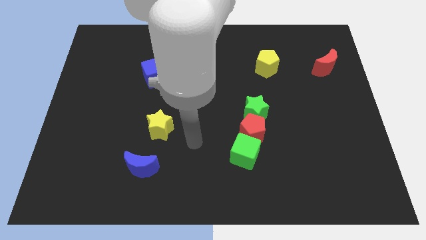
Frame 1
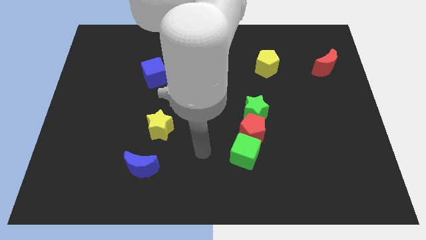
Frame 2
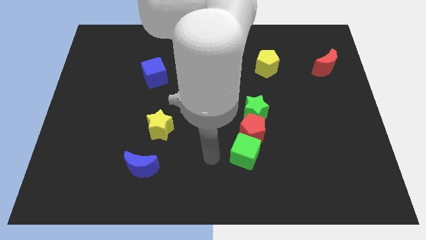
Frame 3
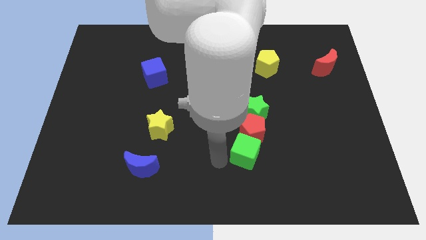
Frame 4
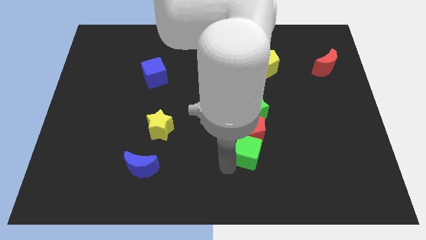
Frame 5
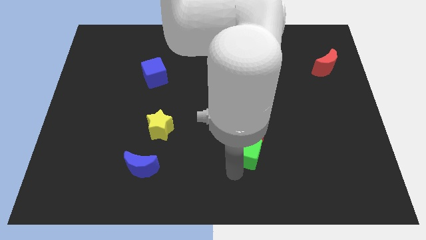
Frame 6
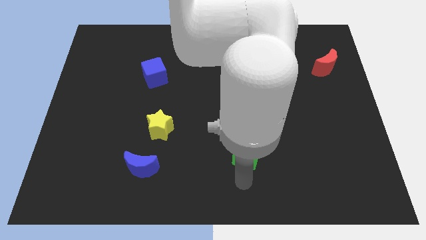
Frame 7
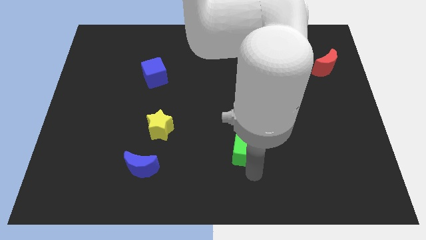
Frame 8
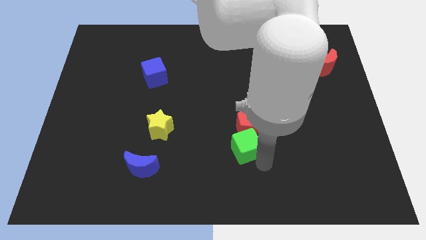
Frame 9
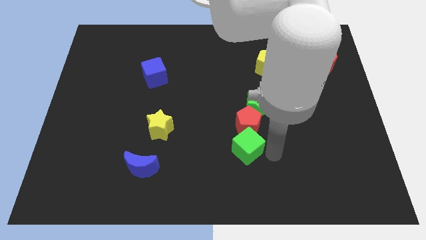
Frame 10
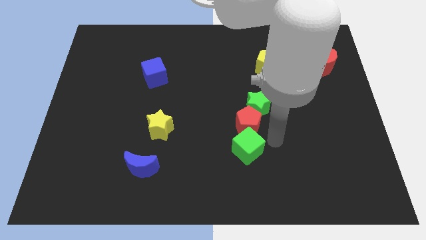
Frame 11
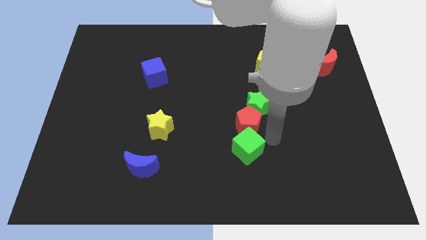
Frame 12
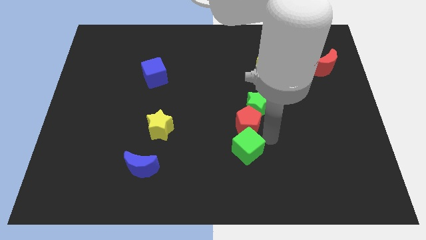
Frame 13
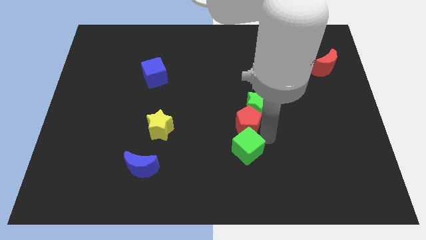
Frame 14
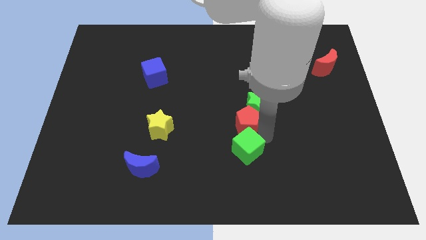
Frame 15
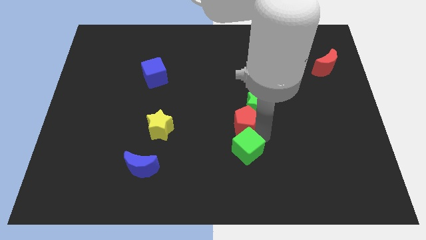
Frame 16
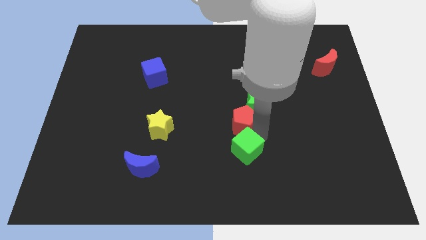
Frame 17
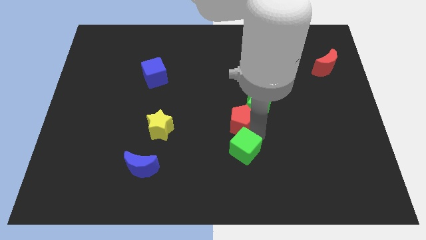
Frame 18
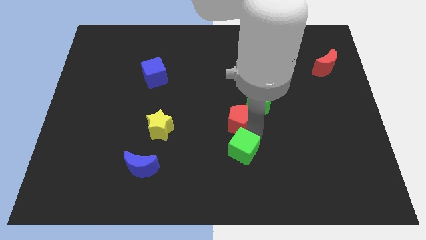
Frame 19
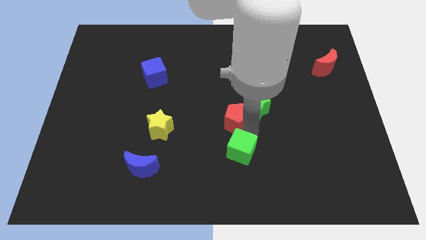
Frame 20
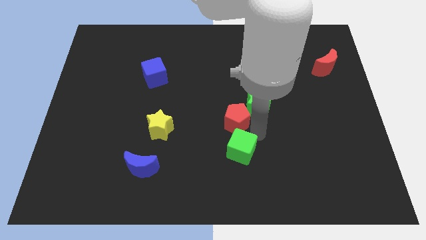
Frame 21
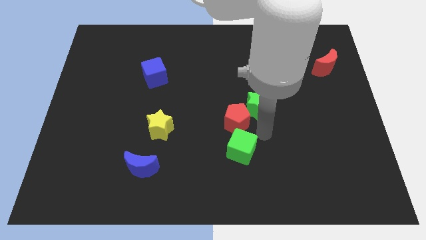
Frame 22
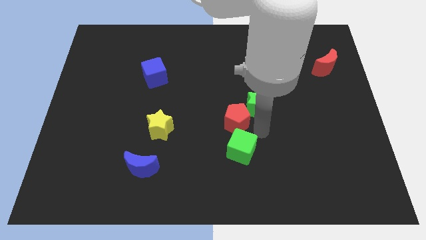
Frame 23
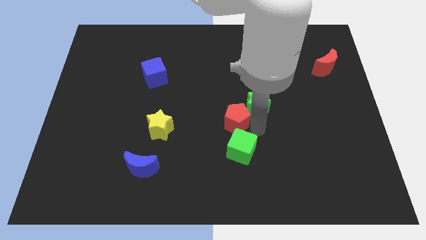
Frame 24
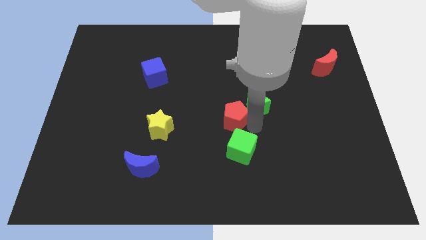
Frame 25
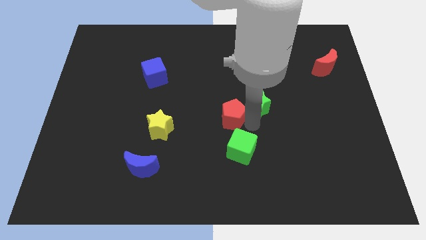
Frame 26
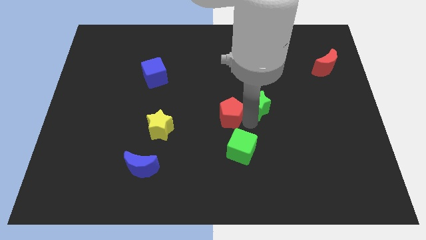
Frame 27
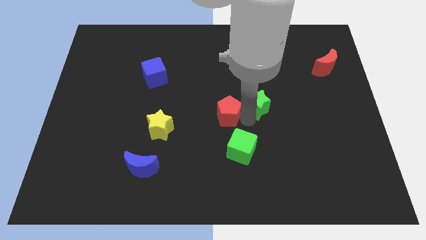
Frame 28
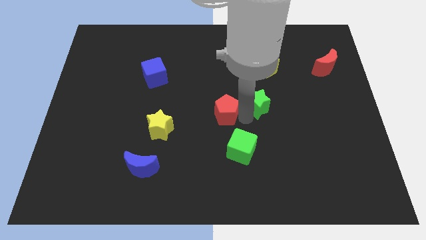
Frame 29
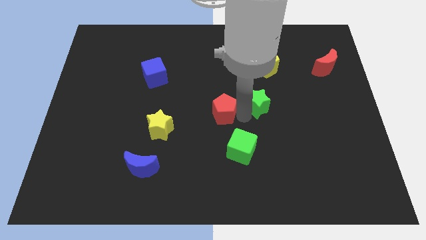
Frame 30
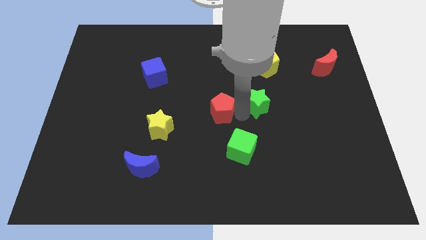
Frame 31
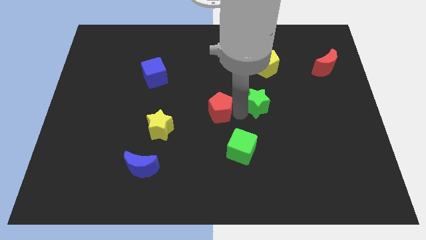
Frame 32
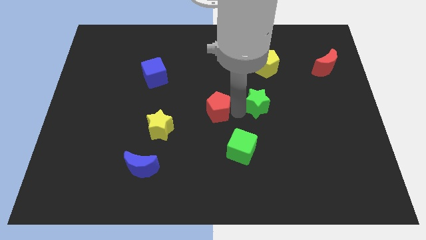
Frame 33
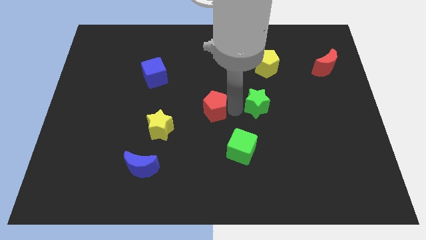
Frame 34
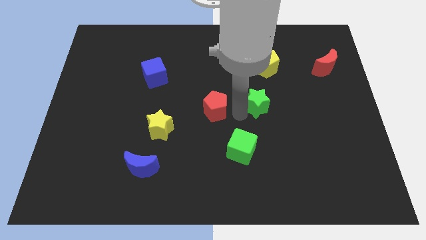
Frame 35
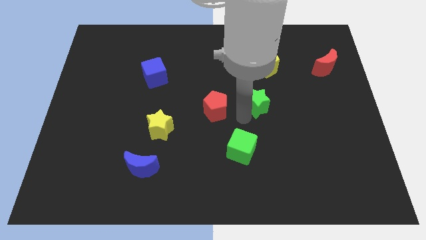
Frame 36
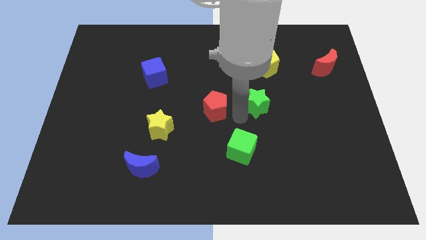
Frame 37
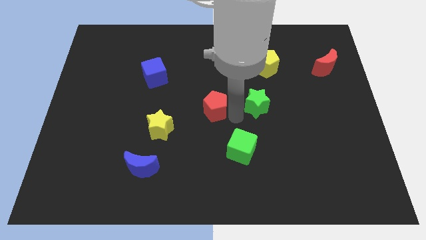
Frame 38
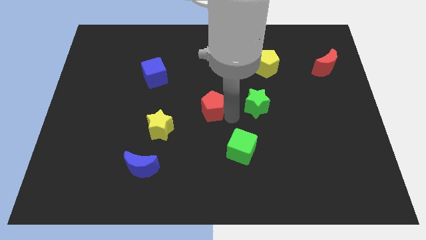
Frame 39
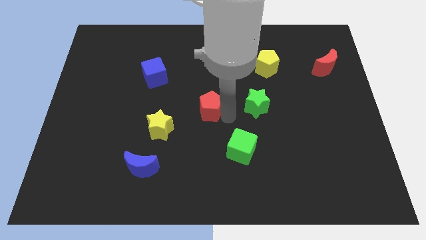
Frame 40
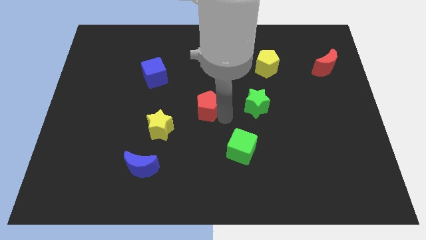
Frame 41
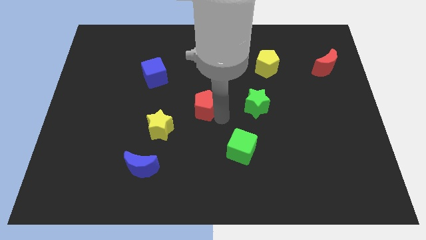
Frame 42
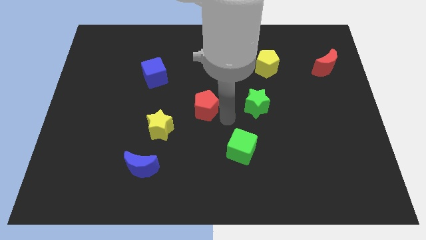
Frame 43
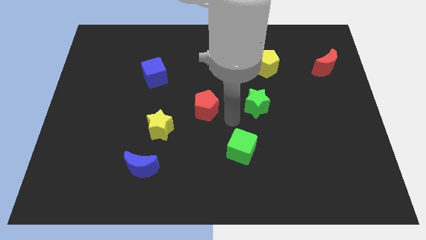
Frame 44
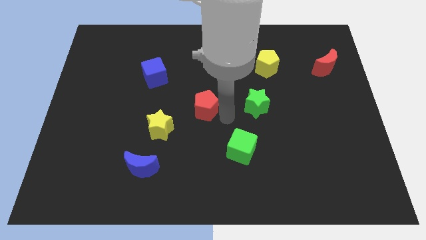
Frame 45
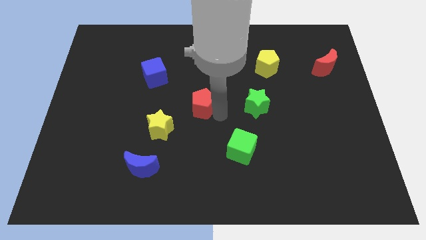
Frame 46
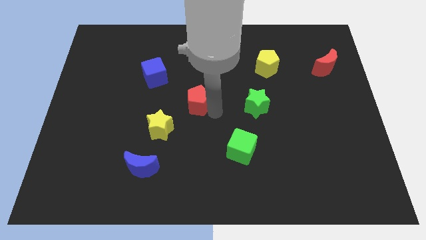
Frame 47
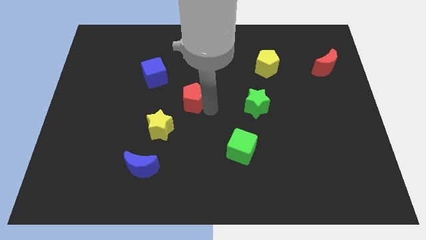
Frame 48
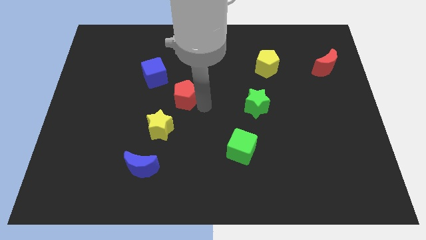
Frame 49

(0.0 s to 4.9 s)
push the red pentagon to the bottom right of the blue cube

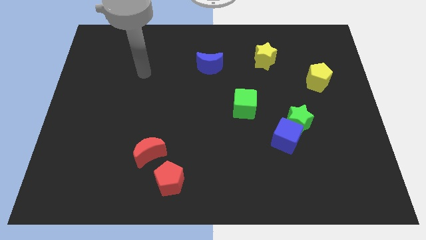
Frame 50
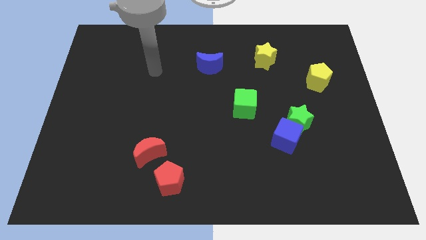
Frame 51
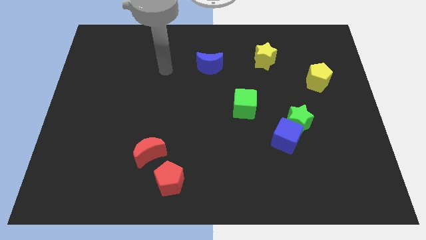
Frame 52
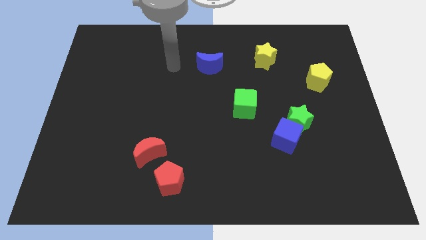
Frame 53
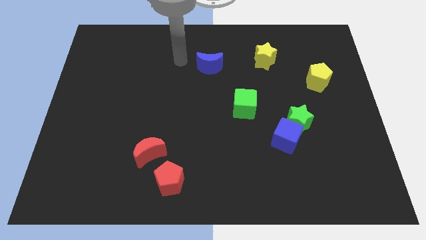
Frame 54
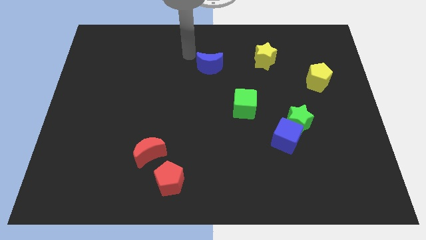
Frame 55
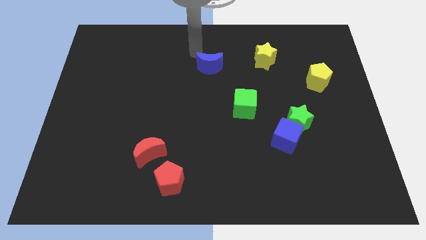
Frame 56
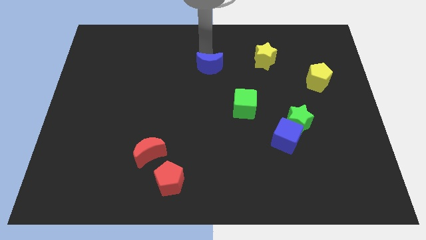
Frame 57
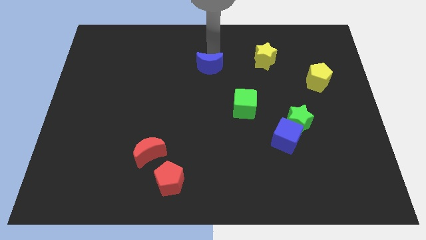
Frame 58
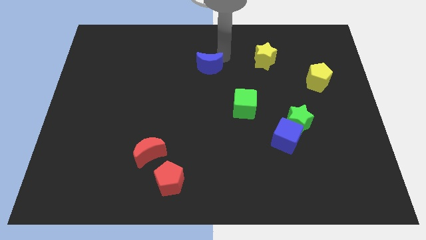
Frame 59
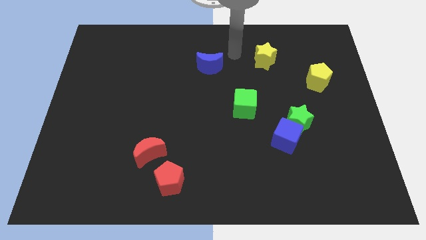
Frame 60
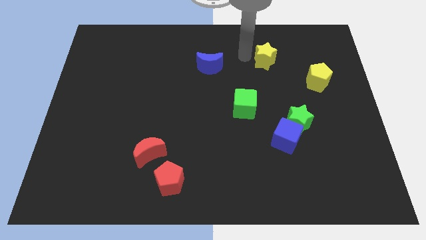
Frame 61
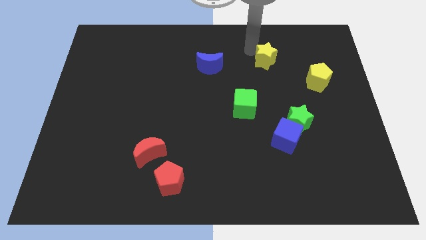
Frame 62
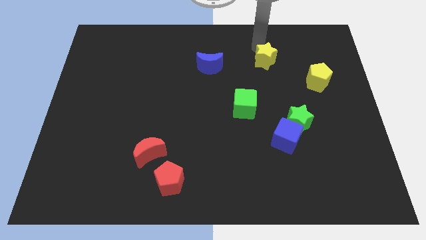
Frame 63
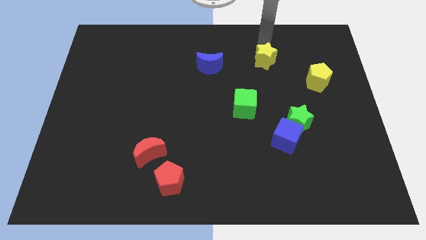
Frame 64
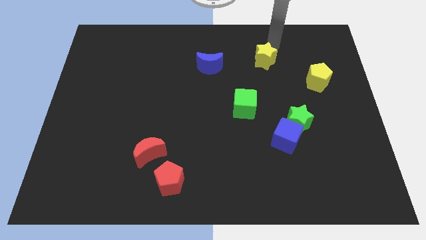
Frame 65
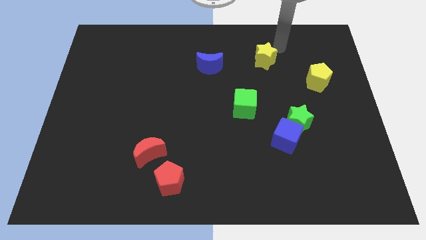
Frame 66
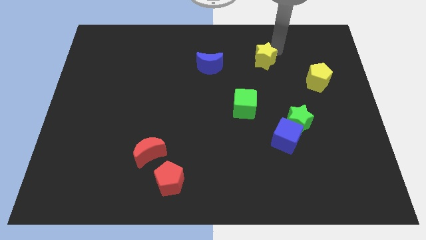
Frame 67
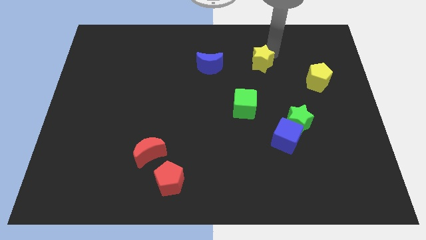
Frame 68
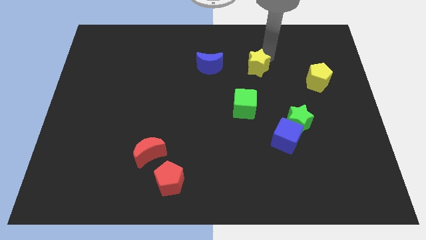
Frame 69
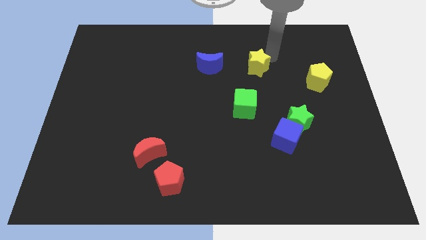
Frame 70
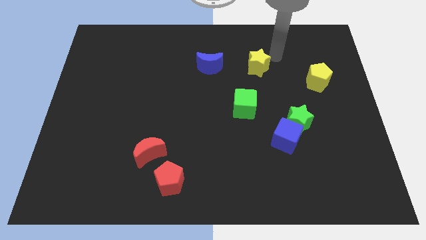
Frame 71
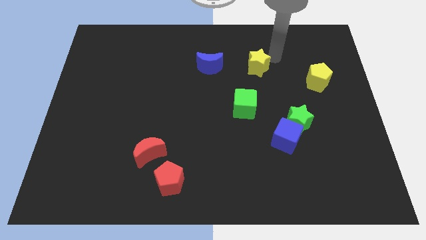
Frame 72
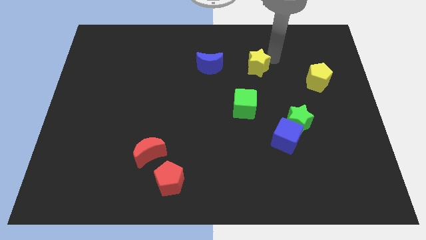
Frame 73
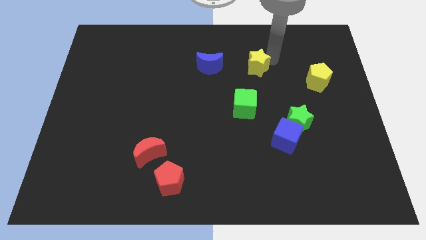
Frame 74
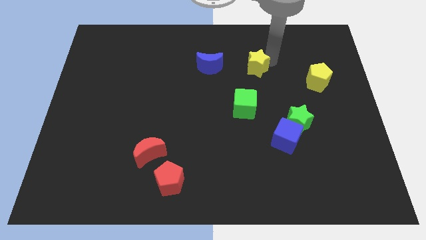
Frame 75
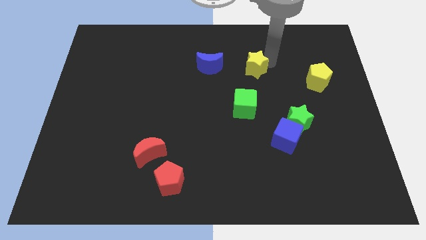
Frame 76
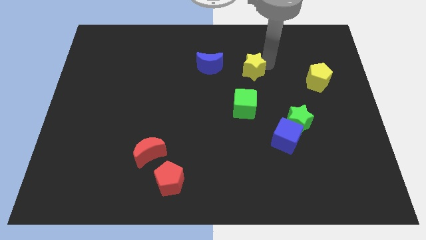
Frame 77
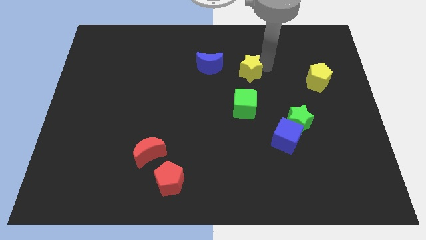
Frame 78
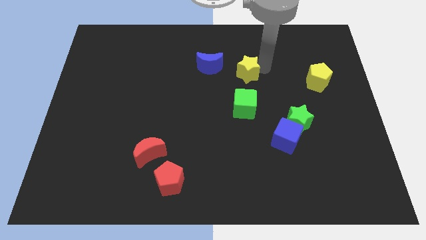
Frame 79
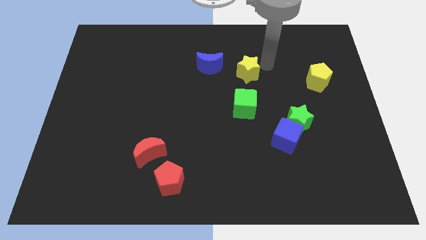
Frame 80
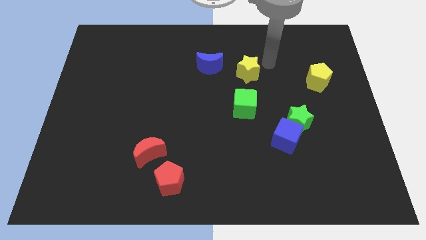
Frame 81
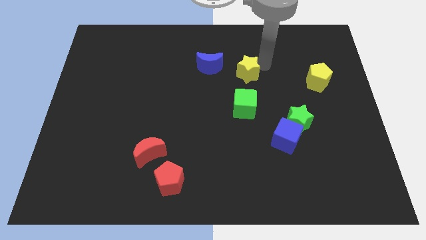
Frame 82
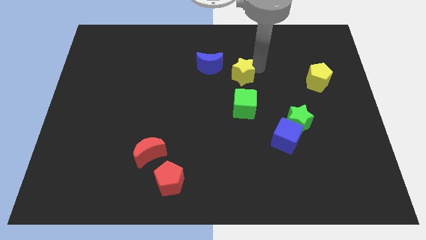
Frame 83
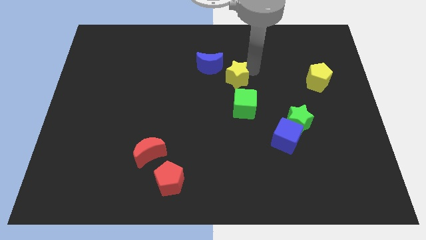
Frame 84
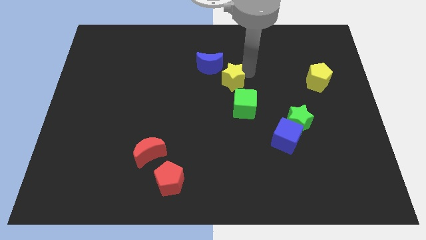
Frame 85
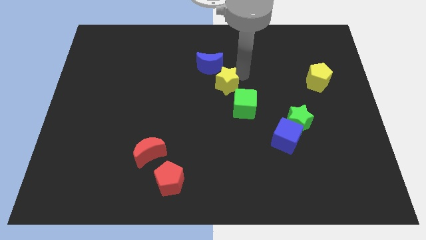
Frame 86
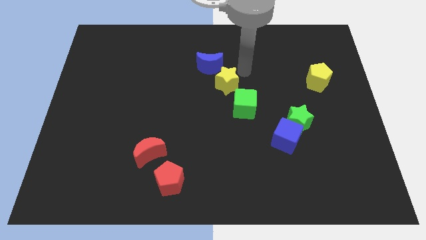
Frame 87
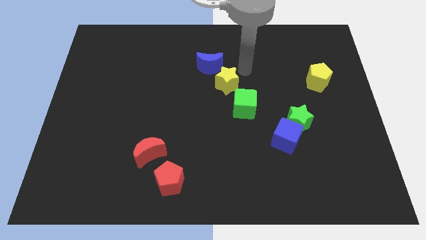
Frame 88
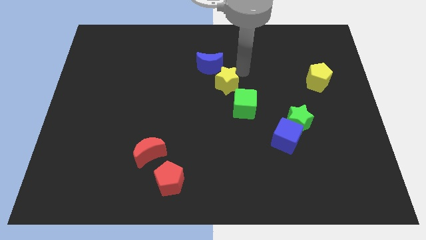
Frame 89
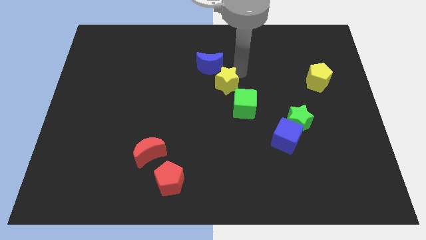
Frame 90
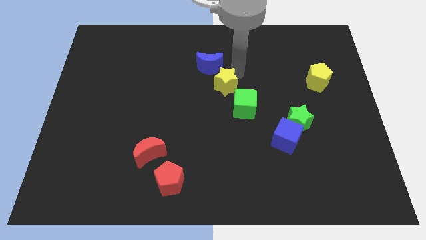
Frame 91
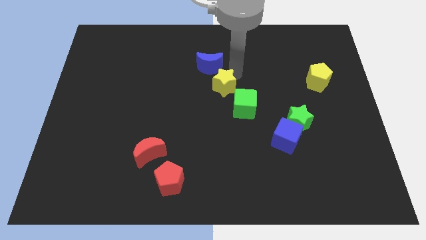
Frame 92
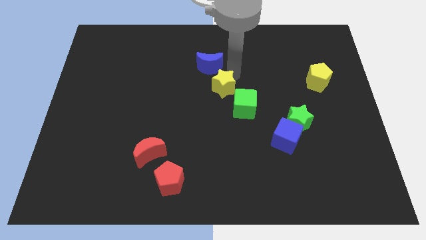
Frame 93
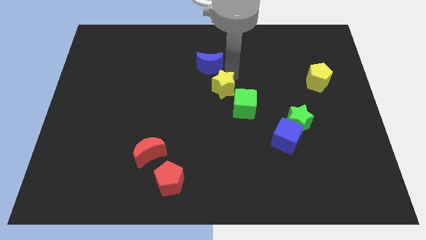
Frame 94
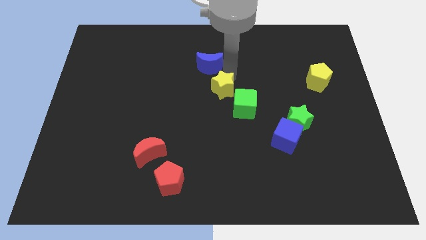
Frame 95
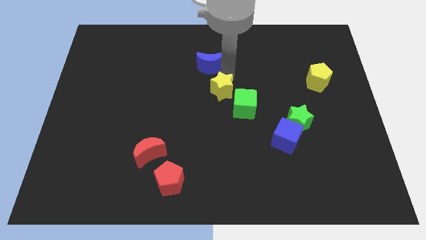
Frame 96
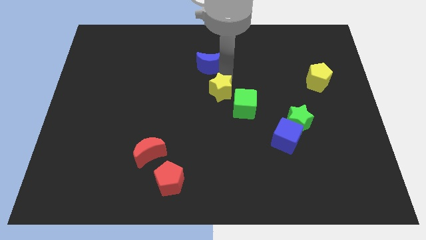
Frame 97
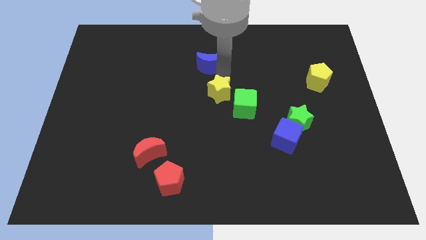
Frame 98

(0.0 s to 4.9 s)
push the yellow star to the left of the green cube
